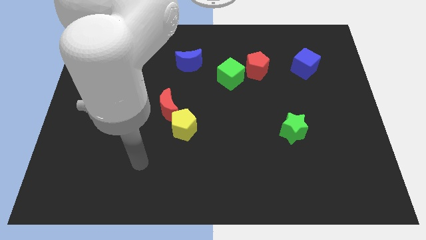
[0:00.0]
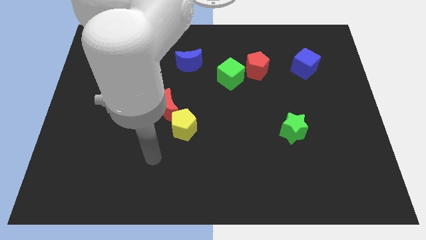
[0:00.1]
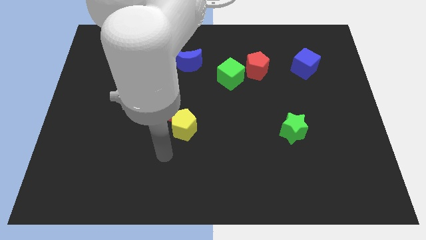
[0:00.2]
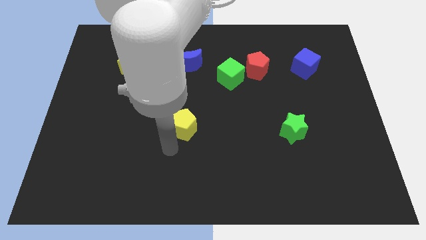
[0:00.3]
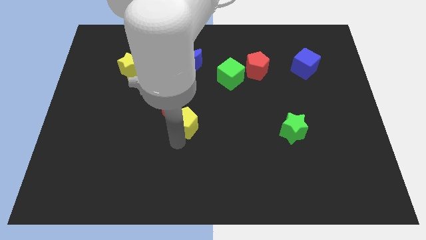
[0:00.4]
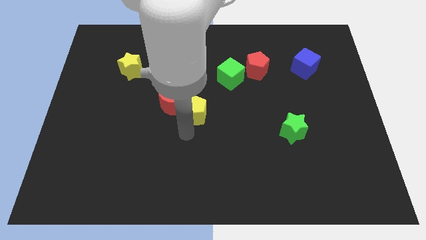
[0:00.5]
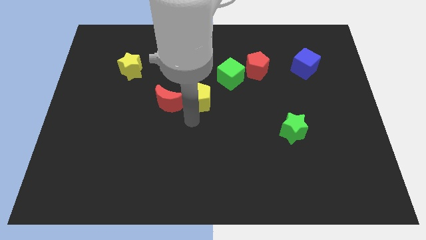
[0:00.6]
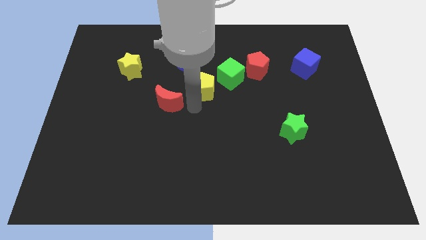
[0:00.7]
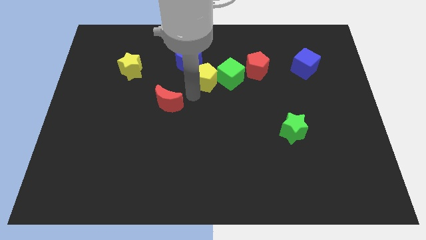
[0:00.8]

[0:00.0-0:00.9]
separate the red moon from the yellow pentagon

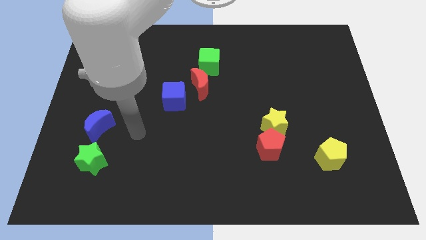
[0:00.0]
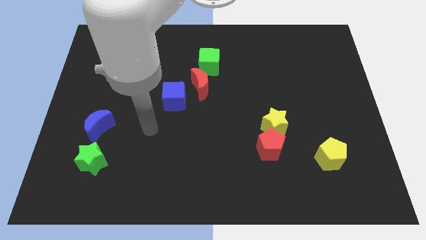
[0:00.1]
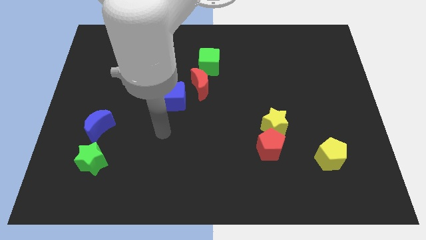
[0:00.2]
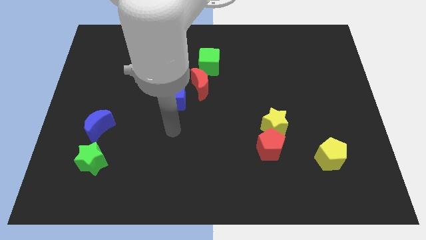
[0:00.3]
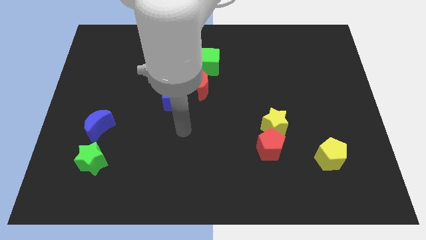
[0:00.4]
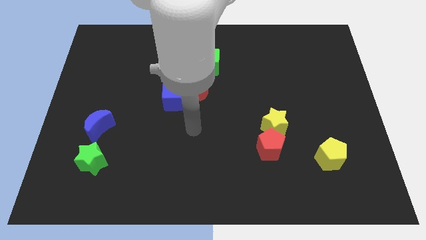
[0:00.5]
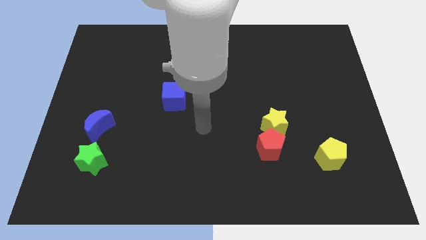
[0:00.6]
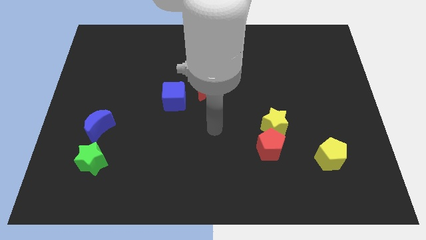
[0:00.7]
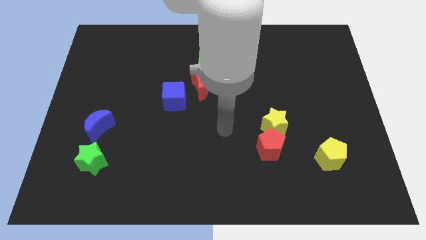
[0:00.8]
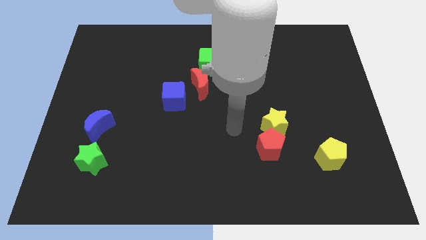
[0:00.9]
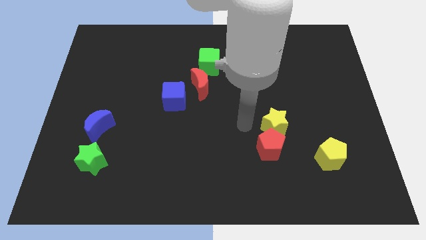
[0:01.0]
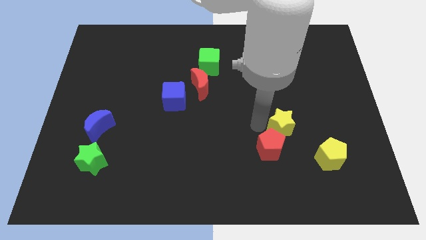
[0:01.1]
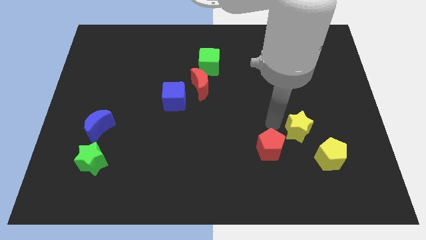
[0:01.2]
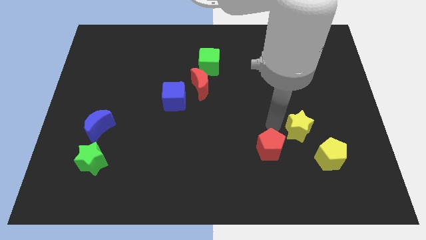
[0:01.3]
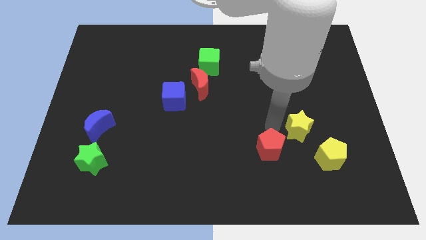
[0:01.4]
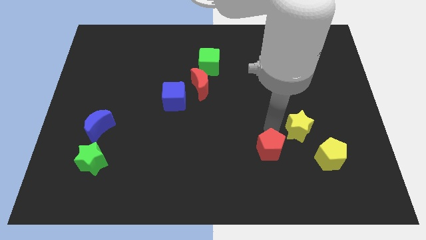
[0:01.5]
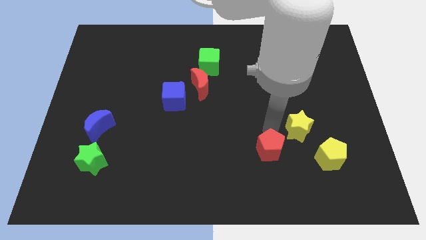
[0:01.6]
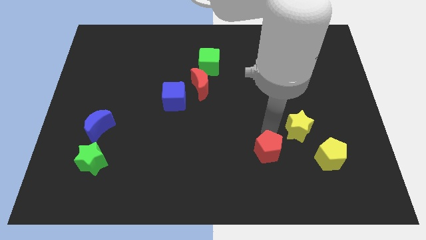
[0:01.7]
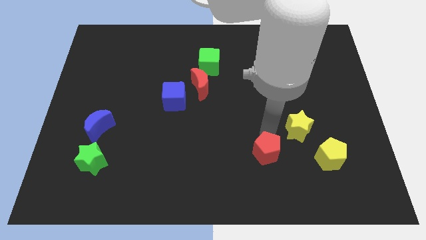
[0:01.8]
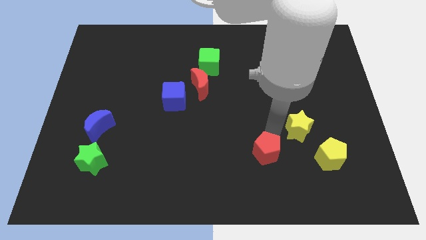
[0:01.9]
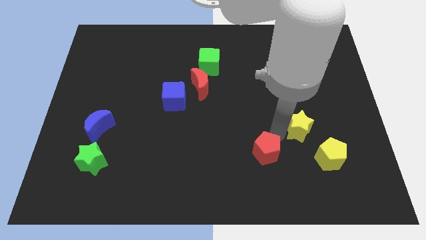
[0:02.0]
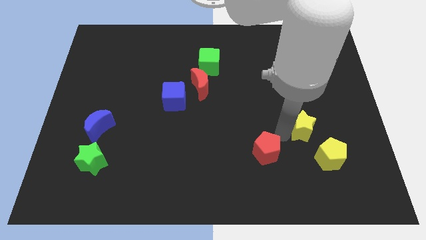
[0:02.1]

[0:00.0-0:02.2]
pull the red pentagon apart from the yellow star

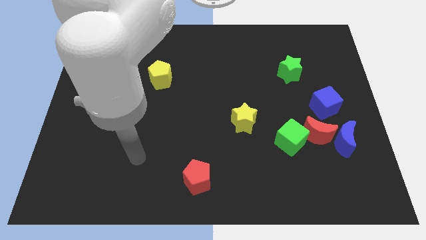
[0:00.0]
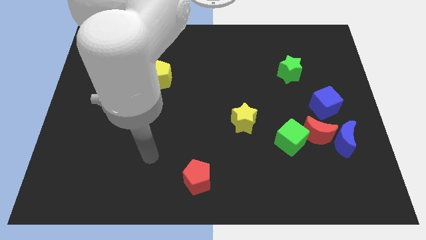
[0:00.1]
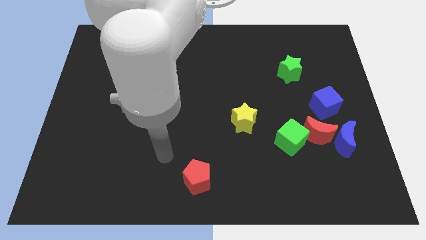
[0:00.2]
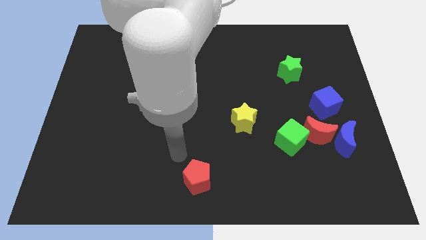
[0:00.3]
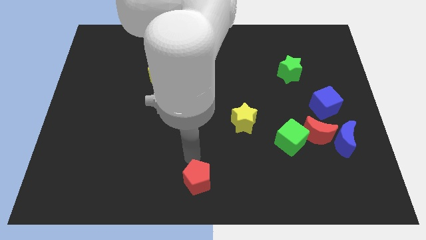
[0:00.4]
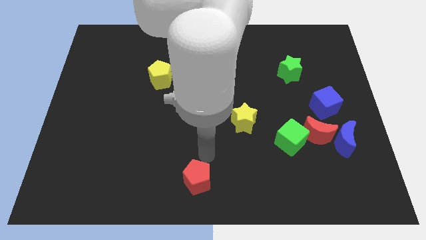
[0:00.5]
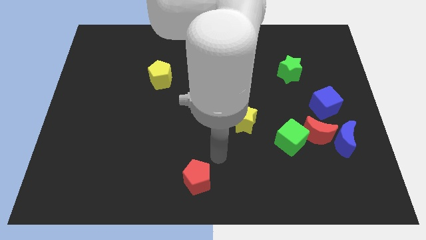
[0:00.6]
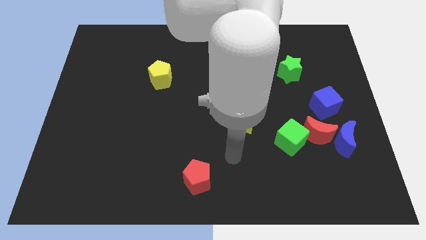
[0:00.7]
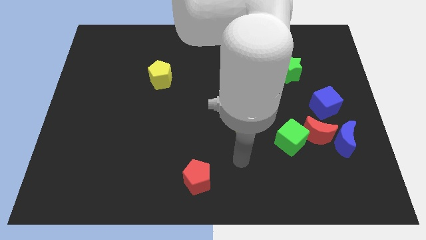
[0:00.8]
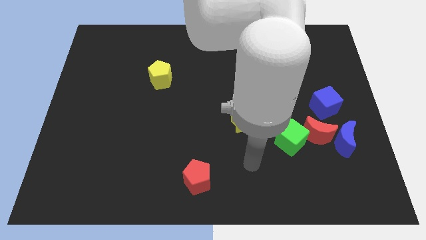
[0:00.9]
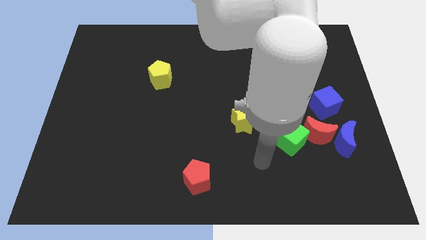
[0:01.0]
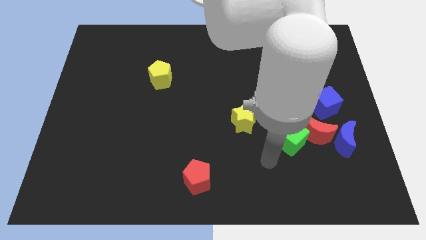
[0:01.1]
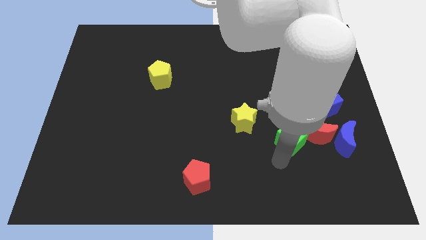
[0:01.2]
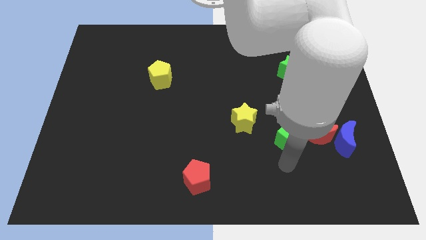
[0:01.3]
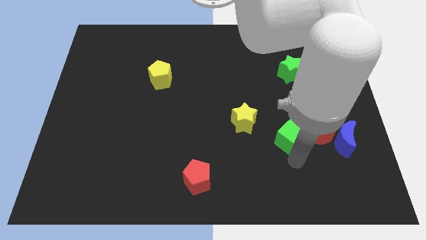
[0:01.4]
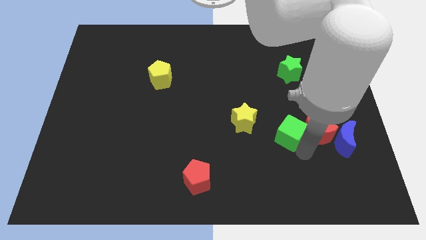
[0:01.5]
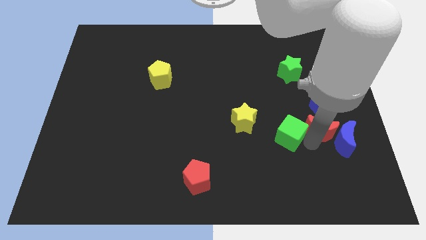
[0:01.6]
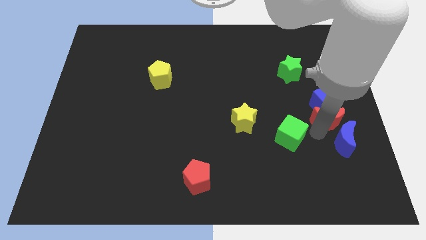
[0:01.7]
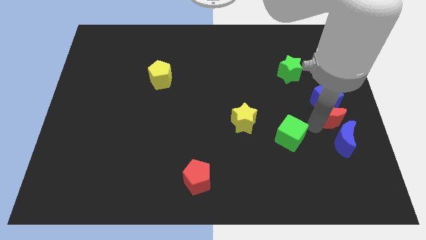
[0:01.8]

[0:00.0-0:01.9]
move the green cube away from the red moon

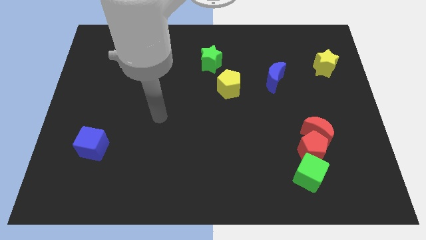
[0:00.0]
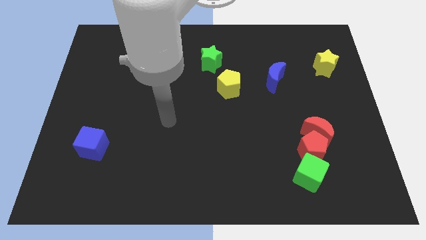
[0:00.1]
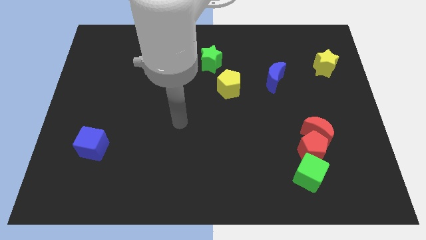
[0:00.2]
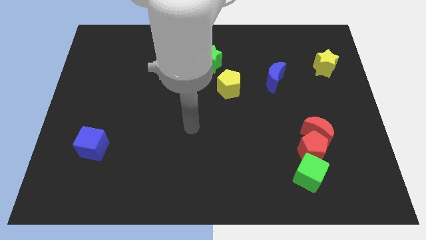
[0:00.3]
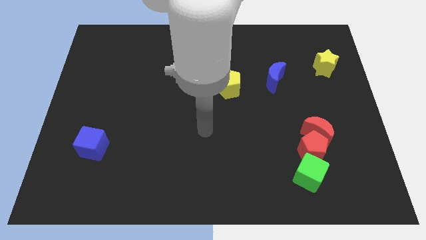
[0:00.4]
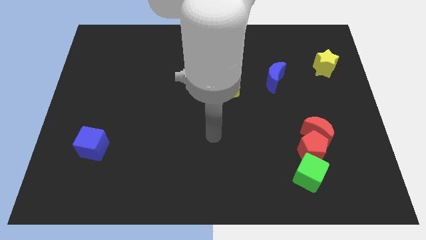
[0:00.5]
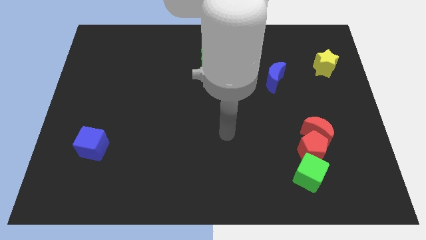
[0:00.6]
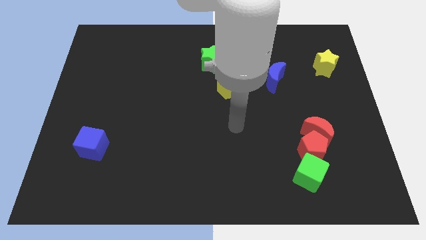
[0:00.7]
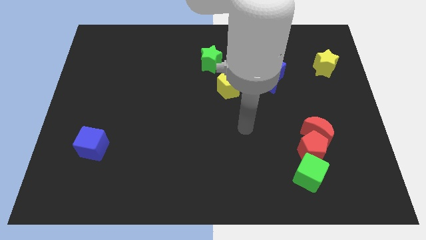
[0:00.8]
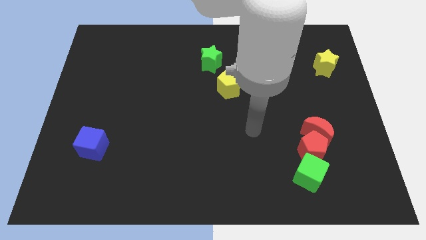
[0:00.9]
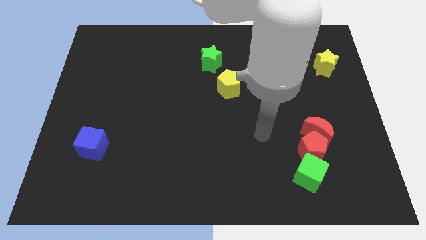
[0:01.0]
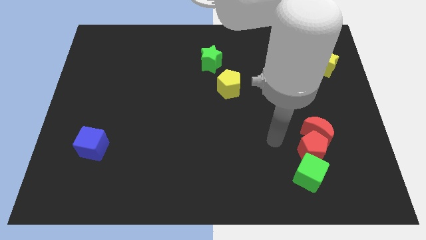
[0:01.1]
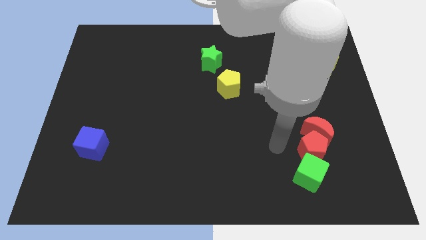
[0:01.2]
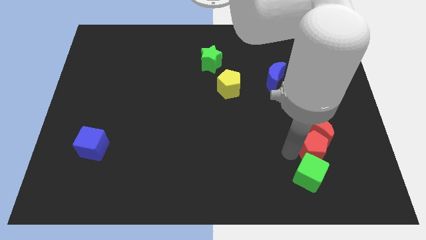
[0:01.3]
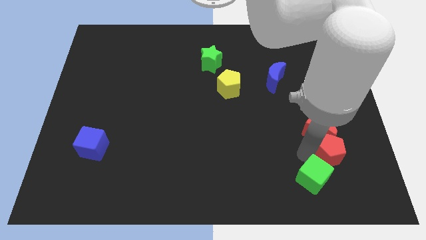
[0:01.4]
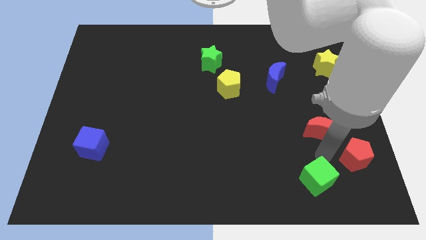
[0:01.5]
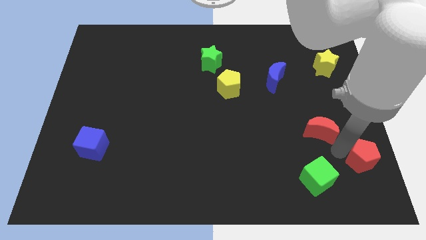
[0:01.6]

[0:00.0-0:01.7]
separate the red moon from the red pentagon

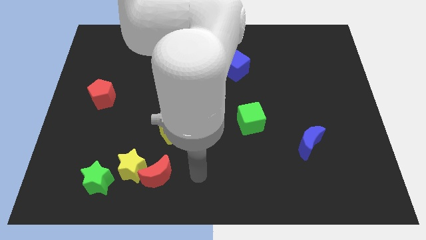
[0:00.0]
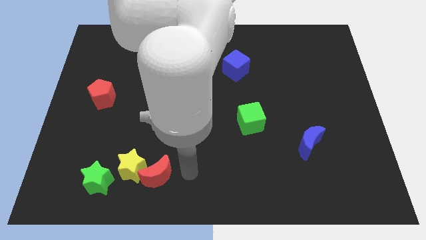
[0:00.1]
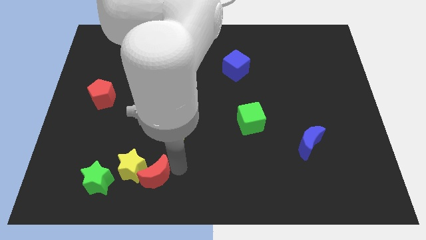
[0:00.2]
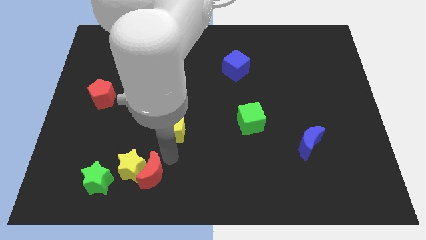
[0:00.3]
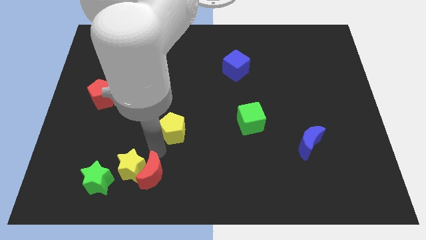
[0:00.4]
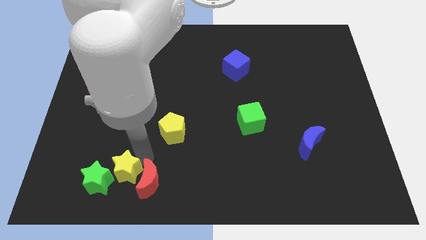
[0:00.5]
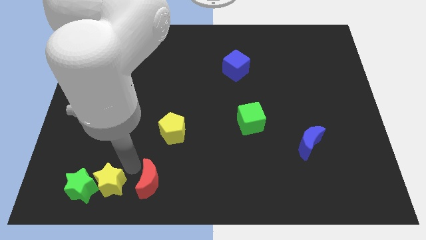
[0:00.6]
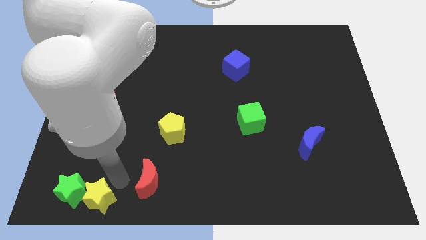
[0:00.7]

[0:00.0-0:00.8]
move the red moon away from the yellow star

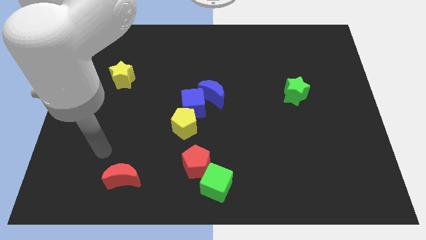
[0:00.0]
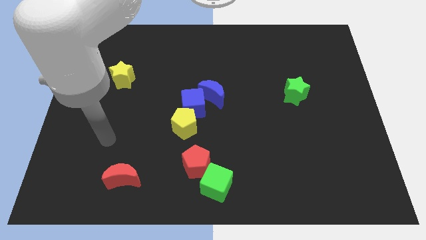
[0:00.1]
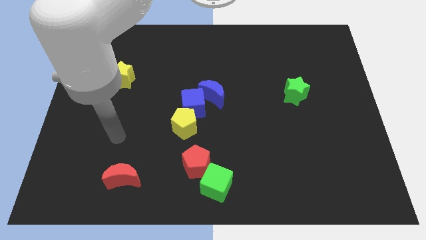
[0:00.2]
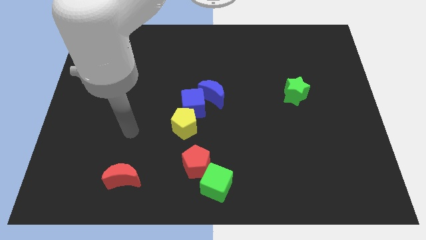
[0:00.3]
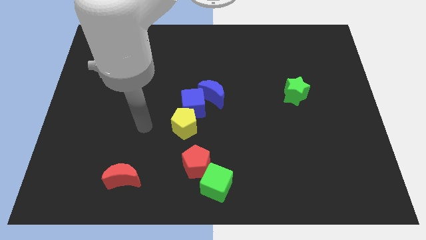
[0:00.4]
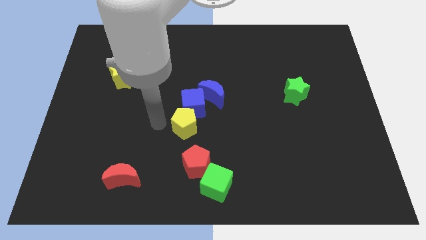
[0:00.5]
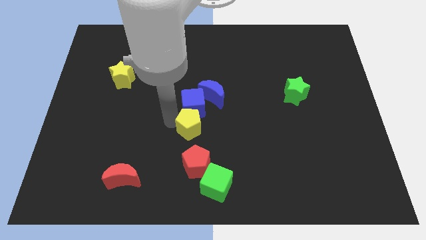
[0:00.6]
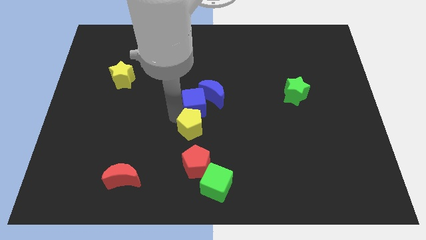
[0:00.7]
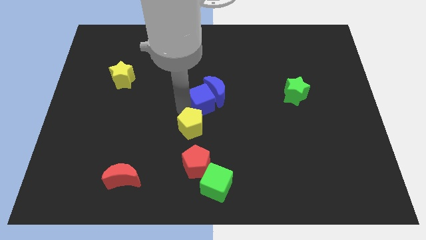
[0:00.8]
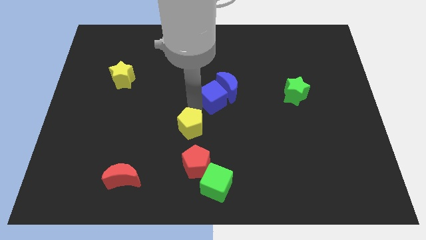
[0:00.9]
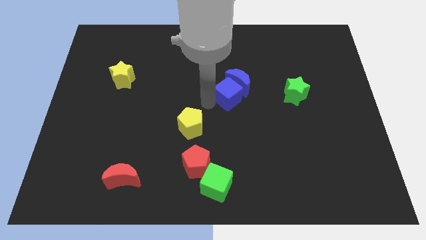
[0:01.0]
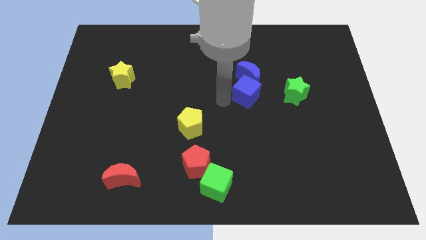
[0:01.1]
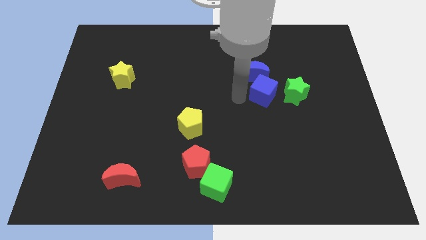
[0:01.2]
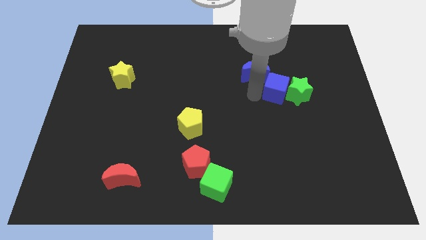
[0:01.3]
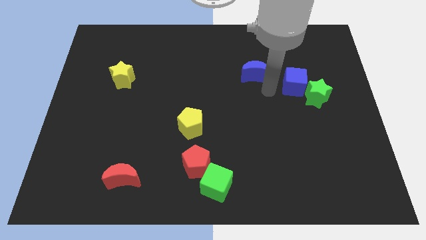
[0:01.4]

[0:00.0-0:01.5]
separate the blue moon from the blue cube

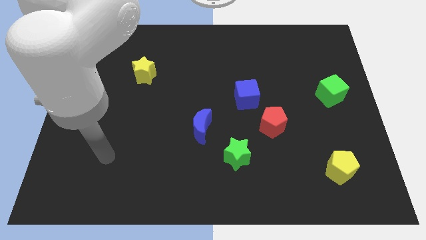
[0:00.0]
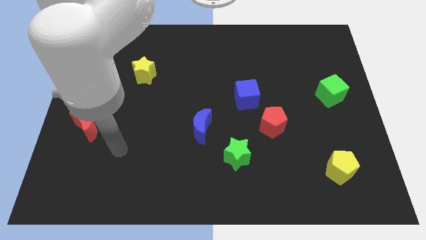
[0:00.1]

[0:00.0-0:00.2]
pull the red pentagon apart from the blue cube
